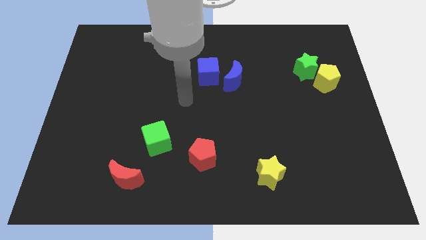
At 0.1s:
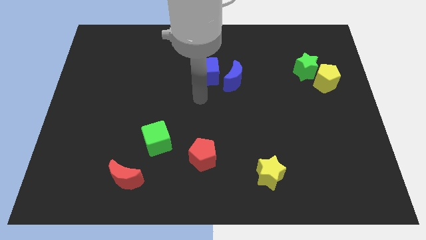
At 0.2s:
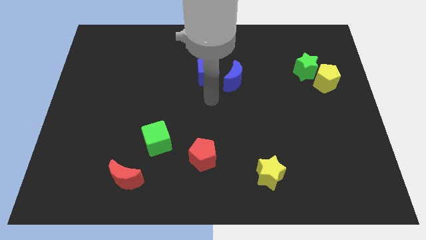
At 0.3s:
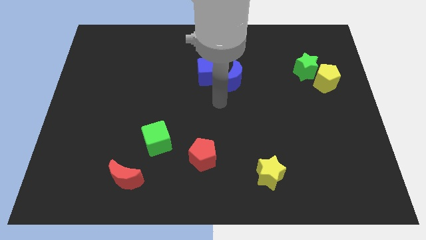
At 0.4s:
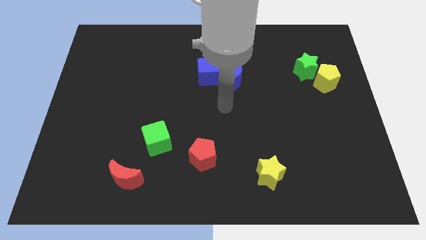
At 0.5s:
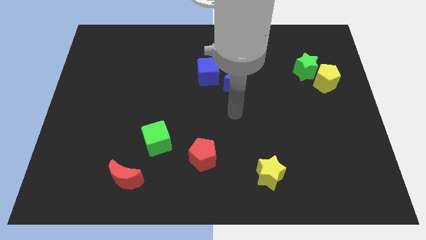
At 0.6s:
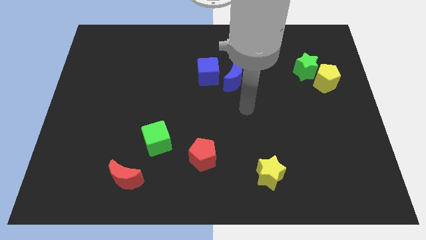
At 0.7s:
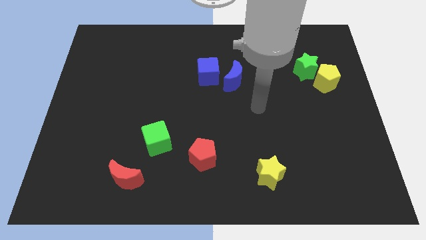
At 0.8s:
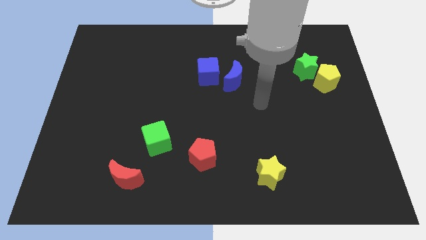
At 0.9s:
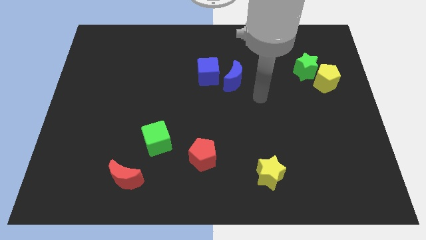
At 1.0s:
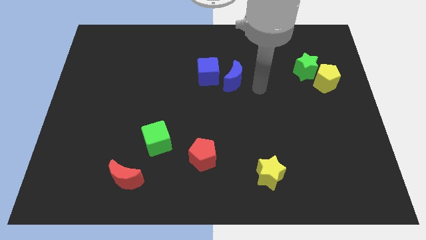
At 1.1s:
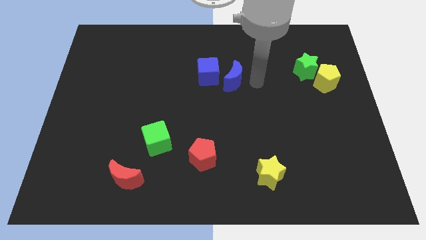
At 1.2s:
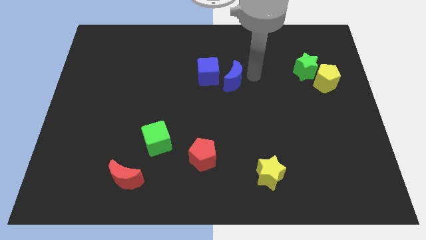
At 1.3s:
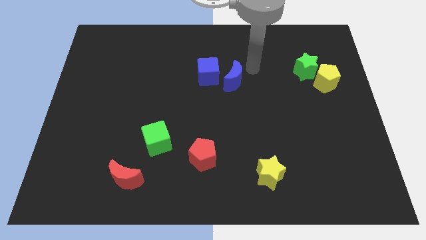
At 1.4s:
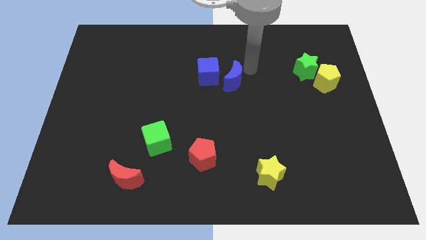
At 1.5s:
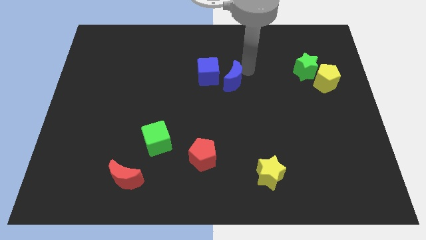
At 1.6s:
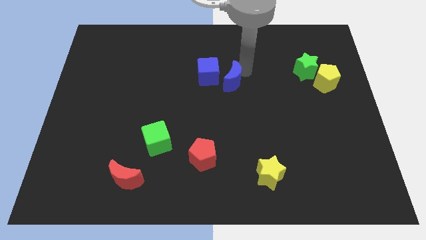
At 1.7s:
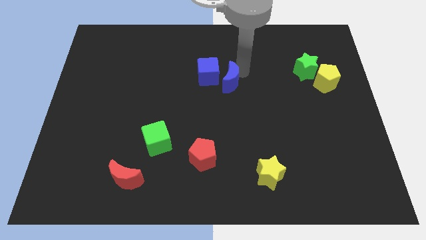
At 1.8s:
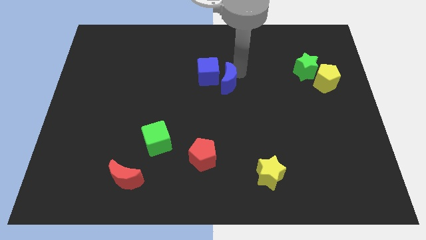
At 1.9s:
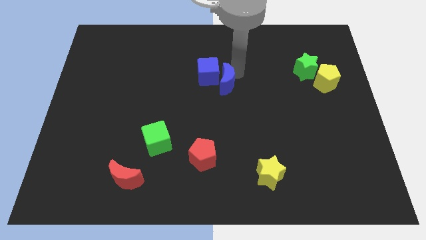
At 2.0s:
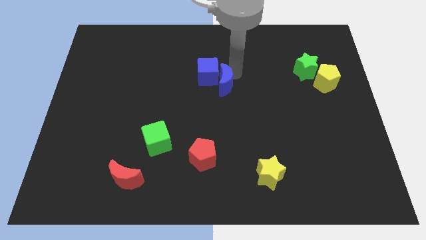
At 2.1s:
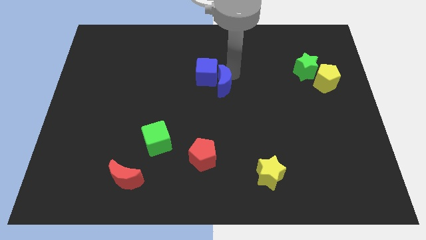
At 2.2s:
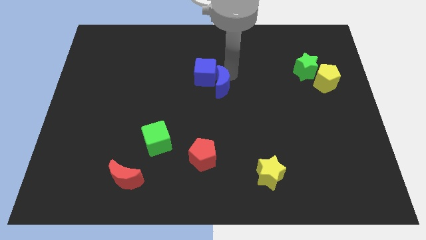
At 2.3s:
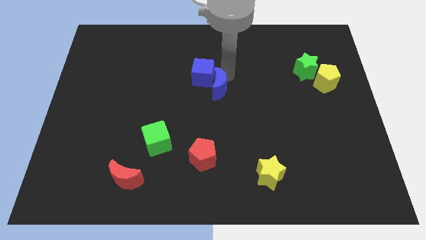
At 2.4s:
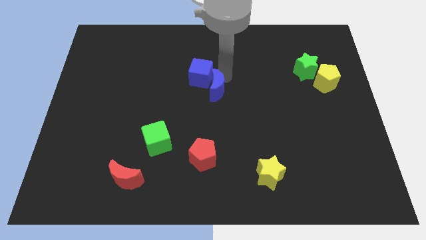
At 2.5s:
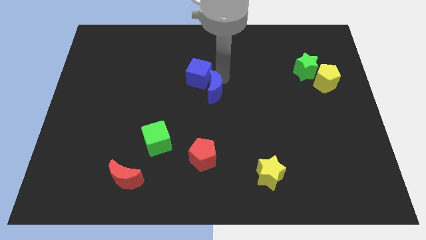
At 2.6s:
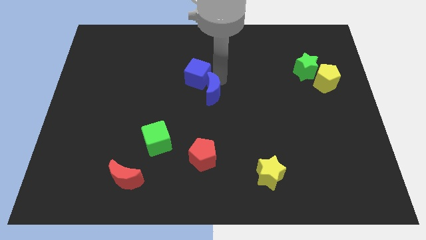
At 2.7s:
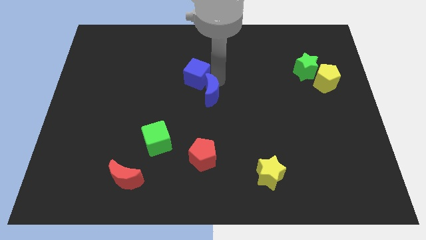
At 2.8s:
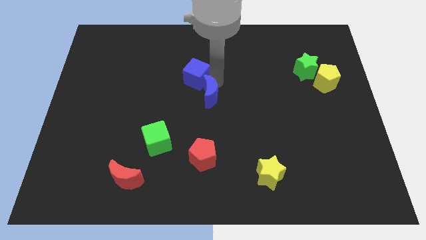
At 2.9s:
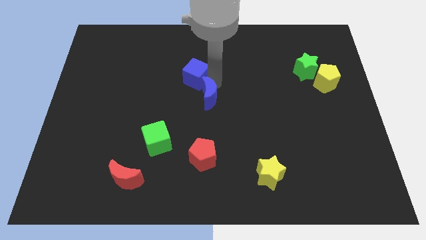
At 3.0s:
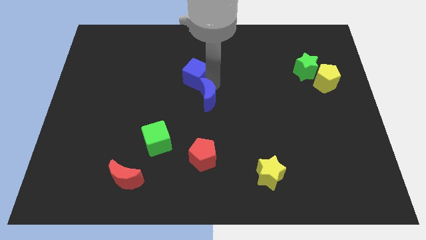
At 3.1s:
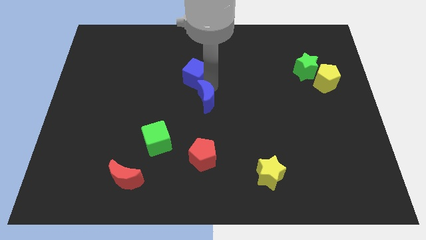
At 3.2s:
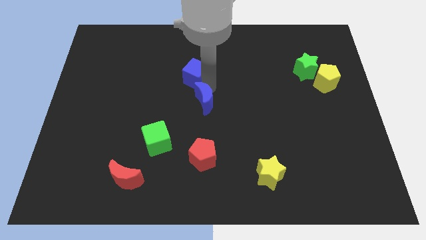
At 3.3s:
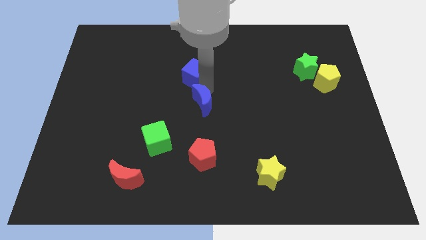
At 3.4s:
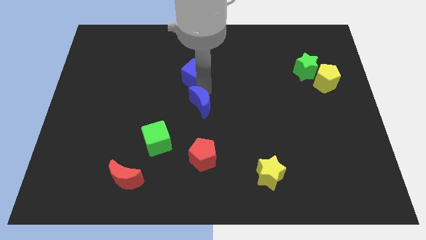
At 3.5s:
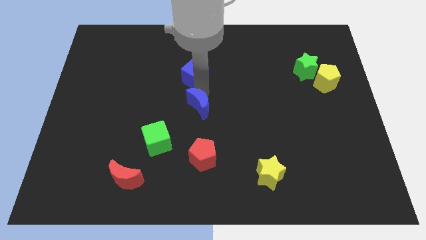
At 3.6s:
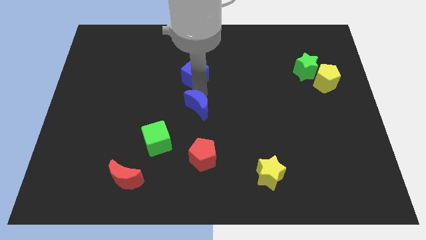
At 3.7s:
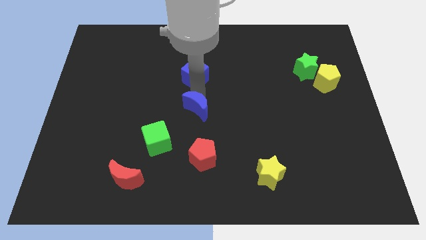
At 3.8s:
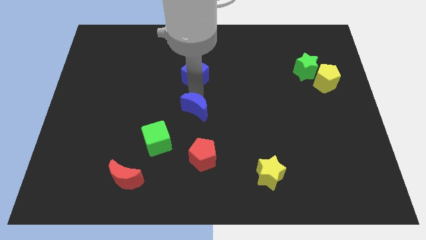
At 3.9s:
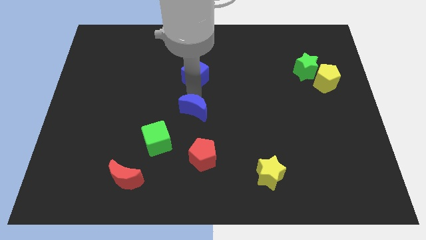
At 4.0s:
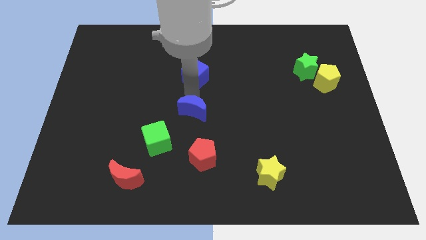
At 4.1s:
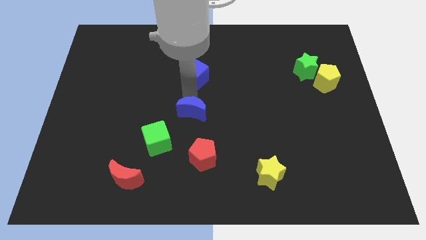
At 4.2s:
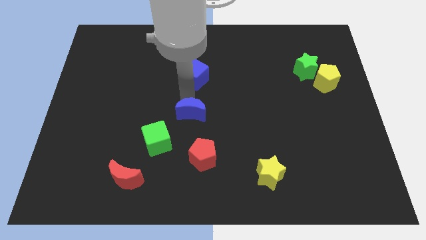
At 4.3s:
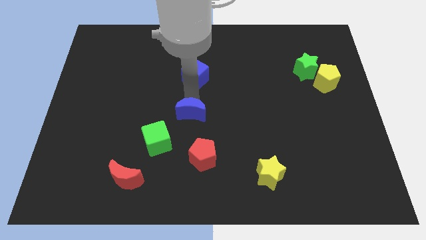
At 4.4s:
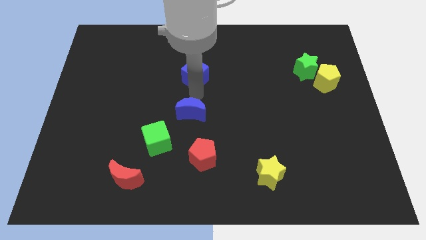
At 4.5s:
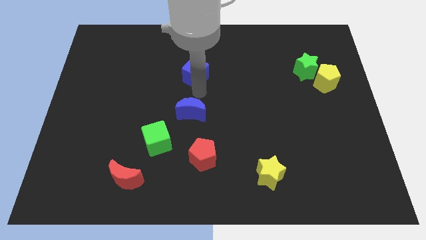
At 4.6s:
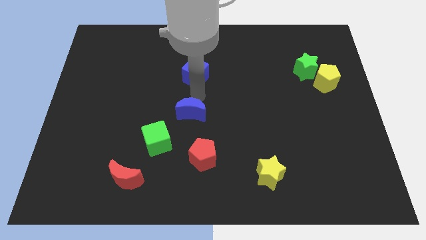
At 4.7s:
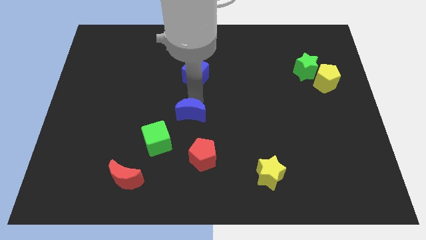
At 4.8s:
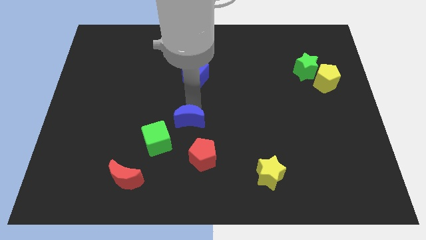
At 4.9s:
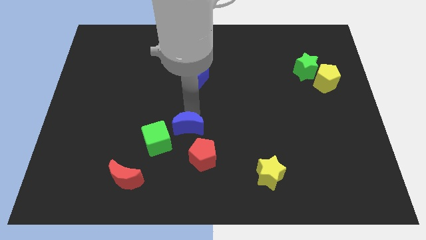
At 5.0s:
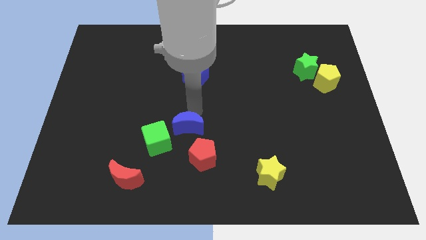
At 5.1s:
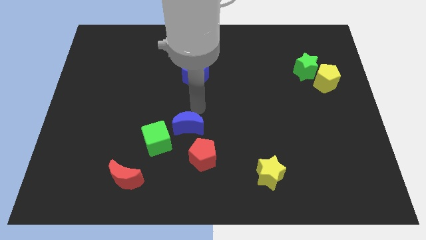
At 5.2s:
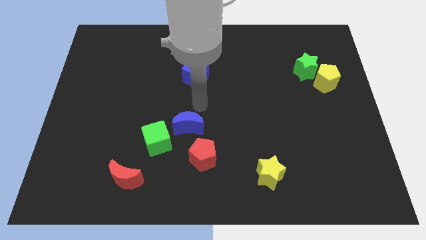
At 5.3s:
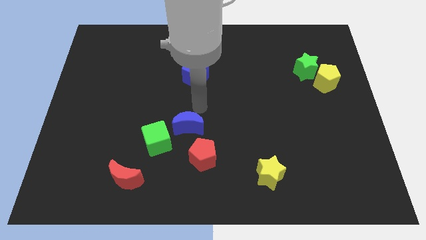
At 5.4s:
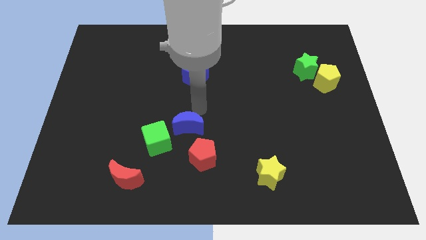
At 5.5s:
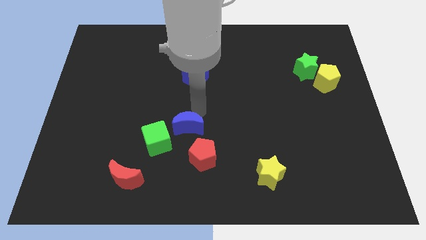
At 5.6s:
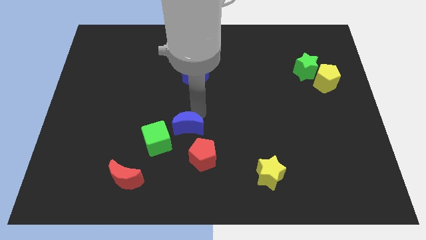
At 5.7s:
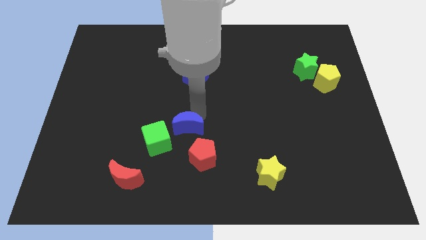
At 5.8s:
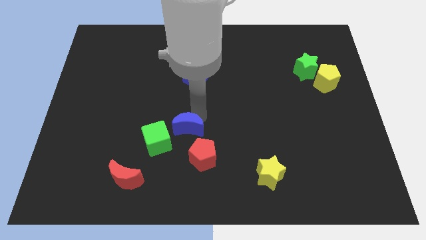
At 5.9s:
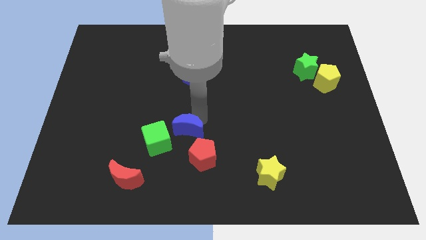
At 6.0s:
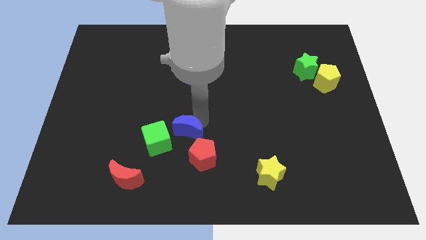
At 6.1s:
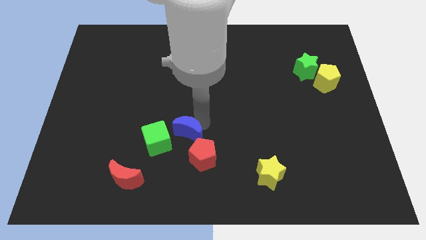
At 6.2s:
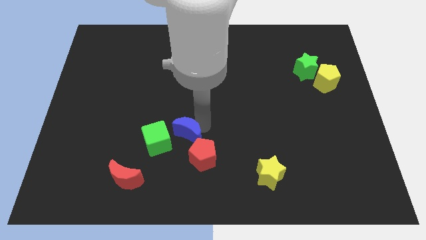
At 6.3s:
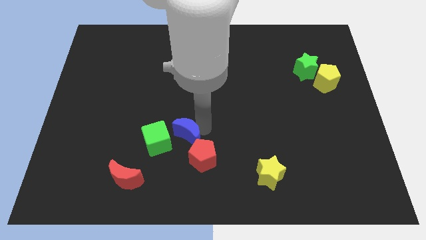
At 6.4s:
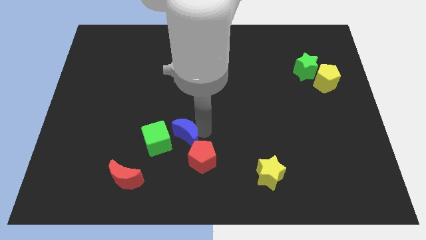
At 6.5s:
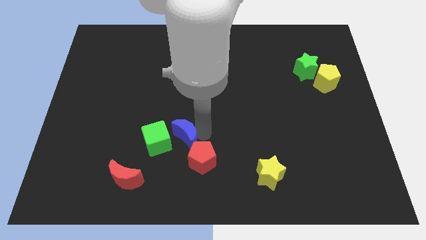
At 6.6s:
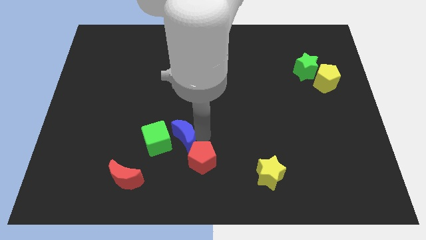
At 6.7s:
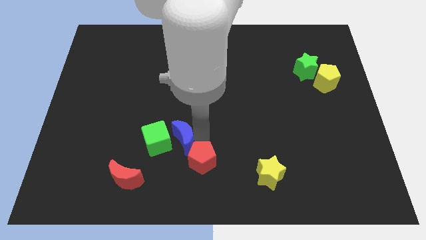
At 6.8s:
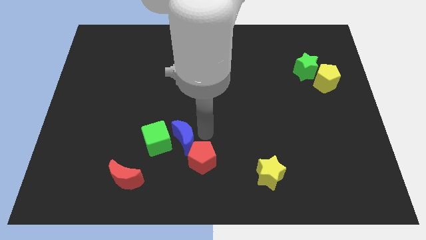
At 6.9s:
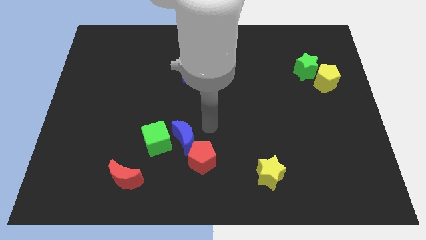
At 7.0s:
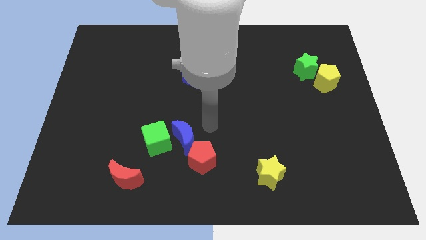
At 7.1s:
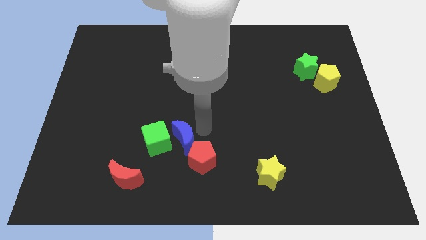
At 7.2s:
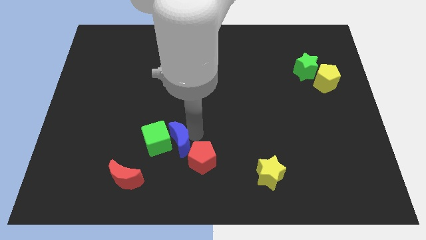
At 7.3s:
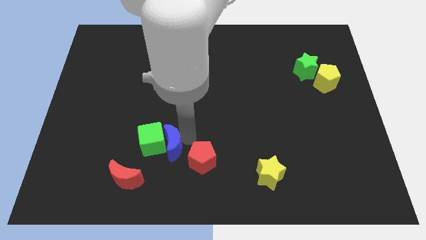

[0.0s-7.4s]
put the blue moon diagonally up and to the right of the red moon
